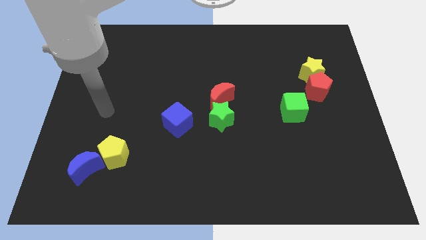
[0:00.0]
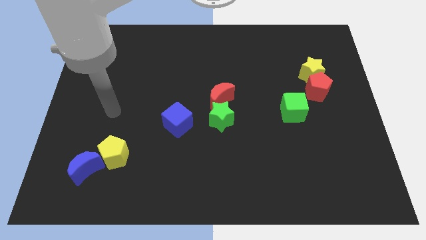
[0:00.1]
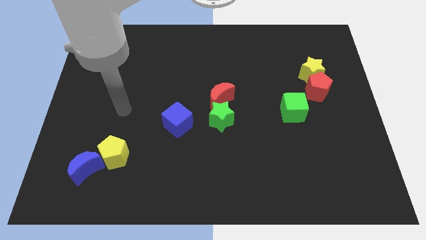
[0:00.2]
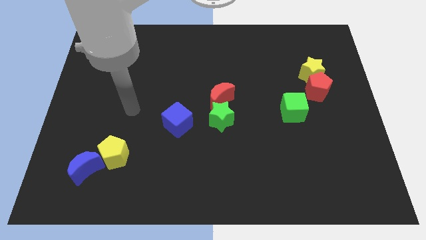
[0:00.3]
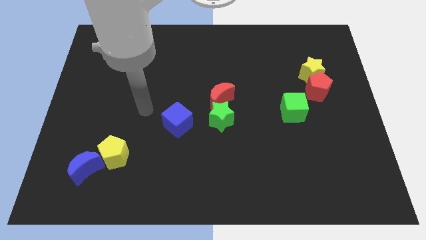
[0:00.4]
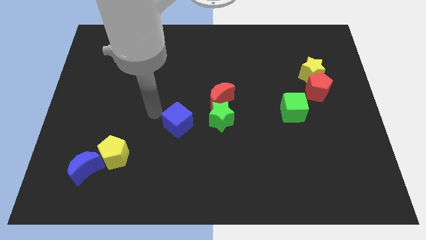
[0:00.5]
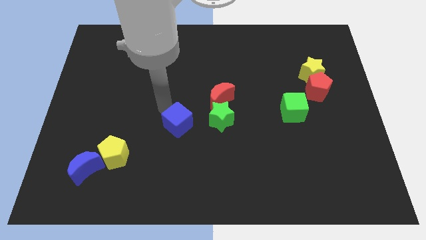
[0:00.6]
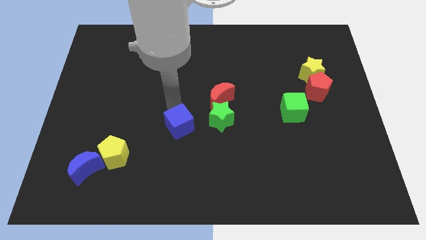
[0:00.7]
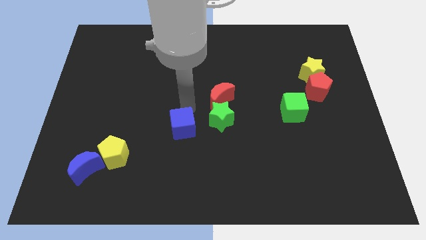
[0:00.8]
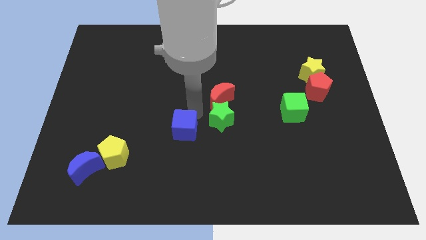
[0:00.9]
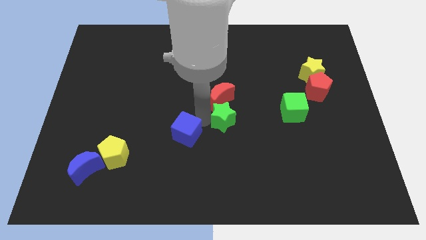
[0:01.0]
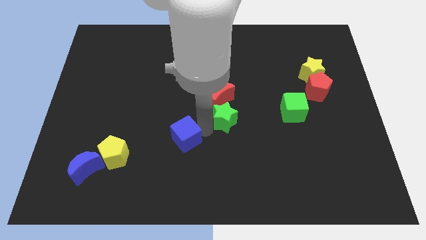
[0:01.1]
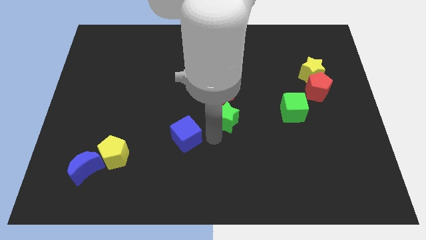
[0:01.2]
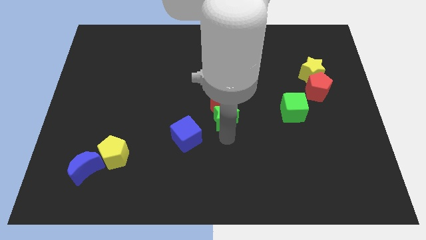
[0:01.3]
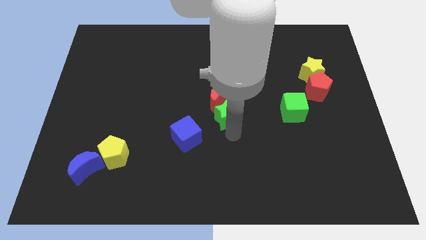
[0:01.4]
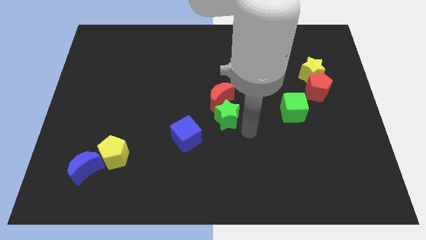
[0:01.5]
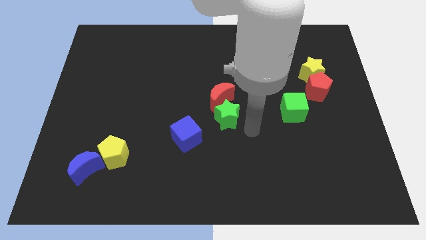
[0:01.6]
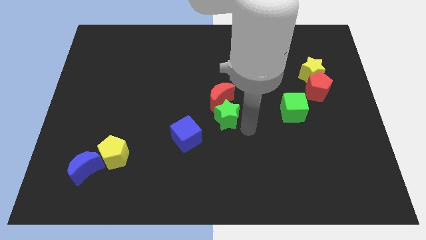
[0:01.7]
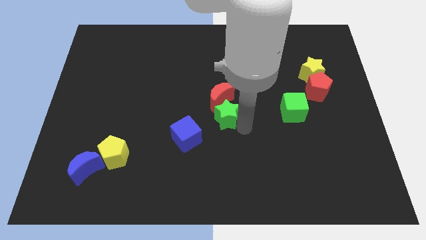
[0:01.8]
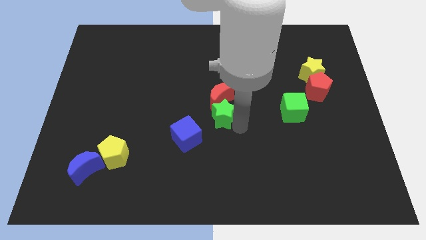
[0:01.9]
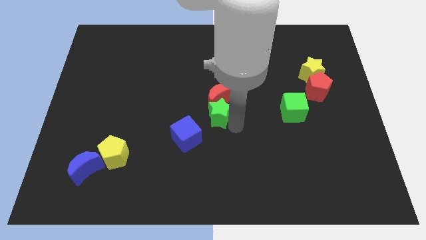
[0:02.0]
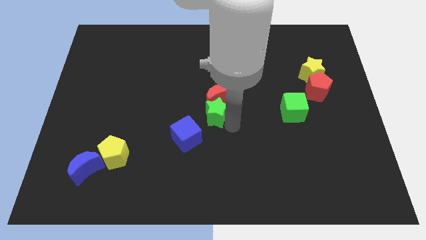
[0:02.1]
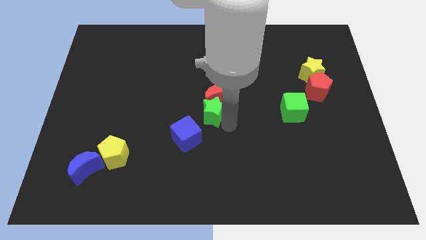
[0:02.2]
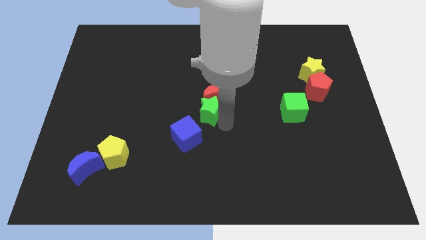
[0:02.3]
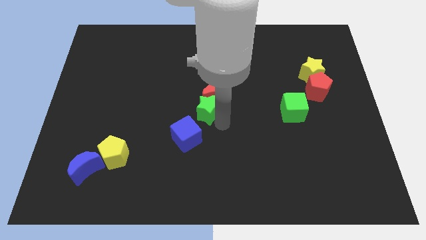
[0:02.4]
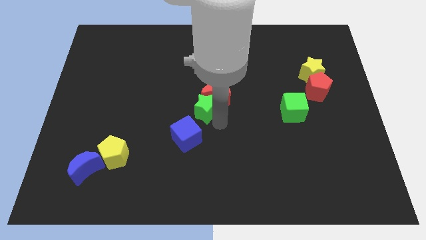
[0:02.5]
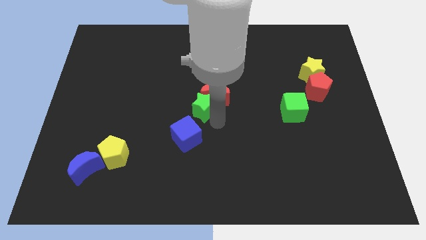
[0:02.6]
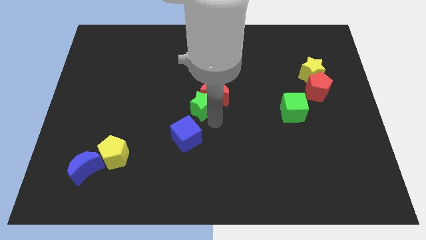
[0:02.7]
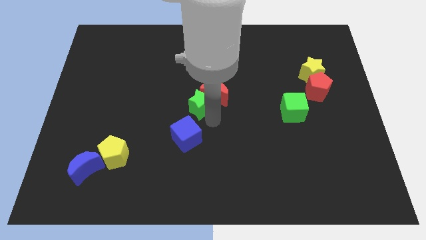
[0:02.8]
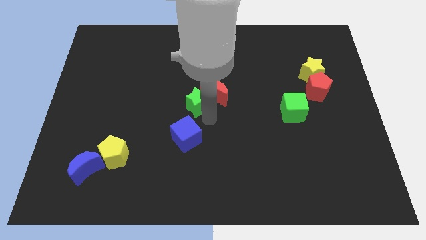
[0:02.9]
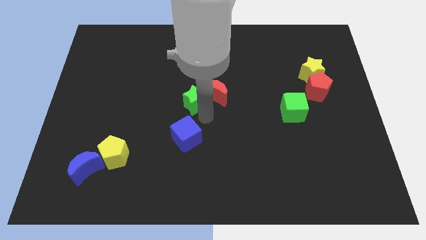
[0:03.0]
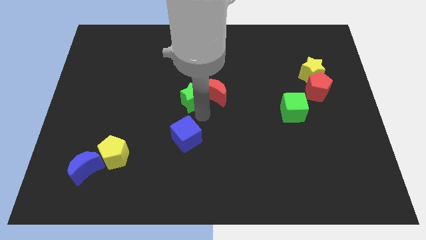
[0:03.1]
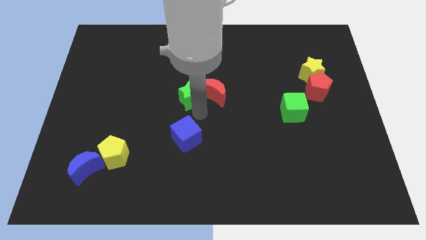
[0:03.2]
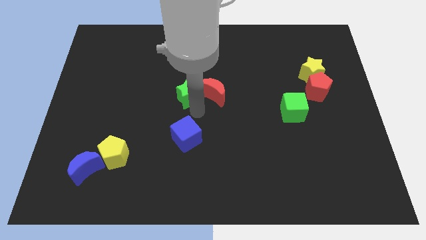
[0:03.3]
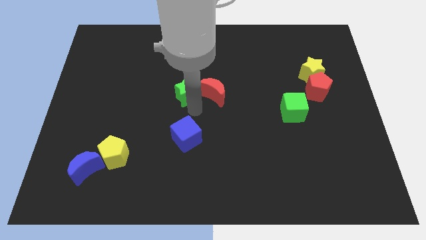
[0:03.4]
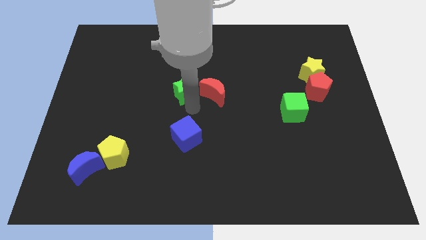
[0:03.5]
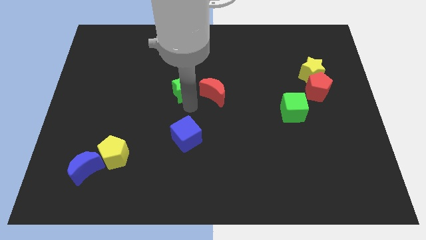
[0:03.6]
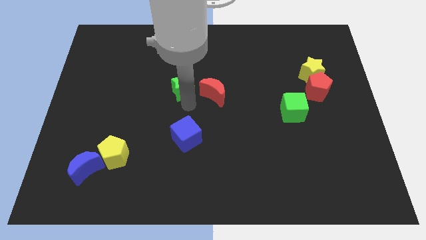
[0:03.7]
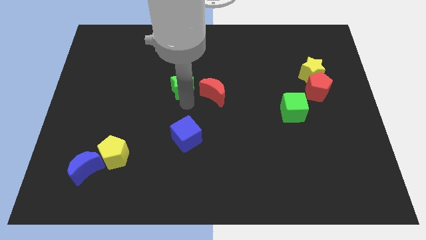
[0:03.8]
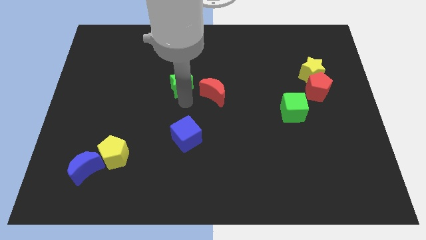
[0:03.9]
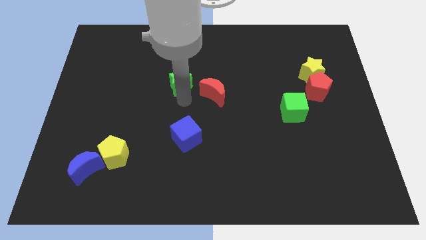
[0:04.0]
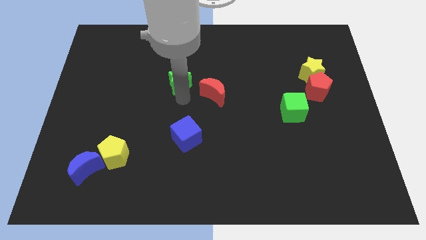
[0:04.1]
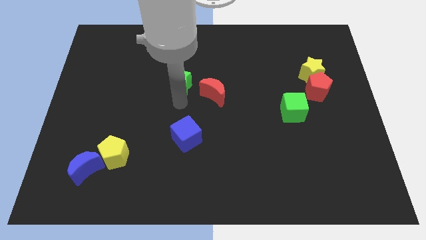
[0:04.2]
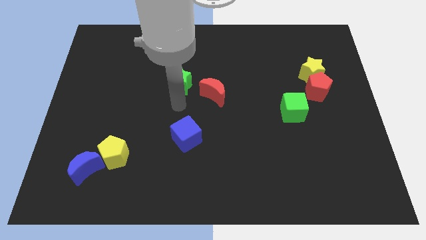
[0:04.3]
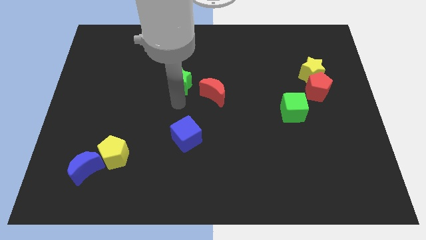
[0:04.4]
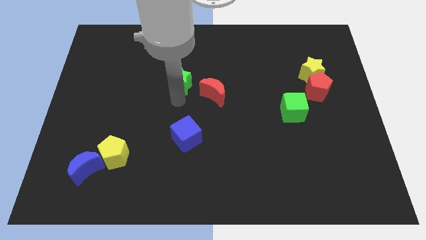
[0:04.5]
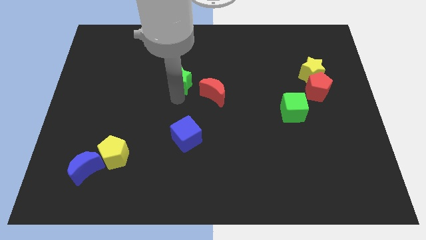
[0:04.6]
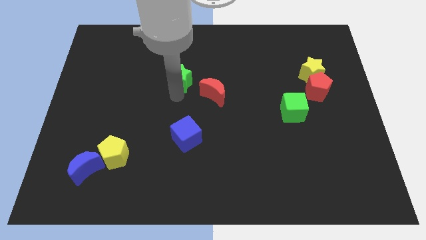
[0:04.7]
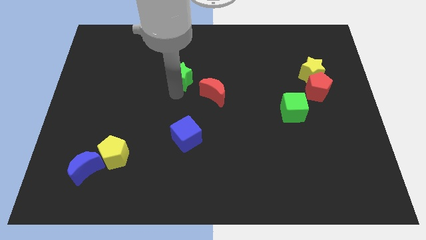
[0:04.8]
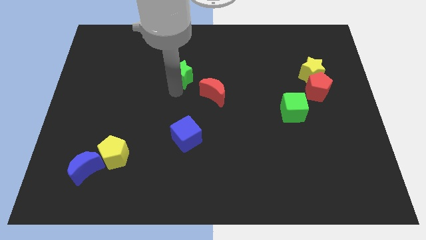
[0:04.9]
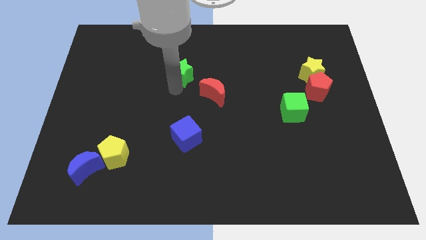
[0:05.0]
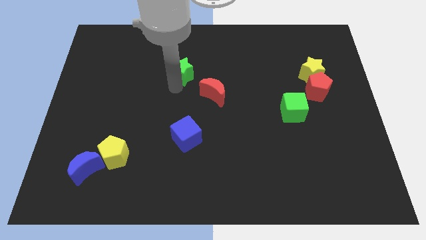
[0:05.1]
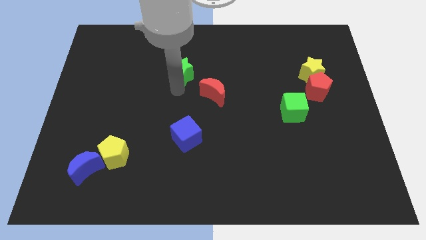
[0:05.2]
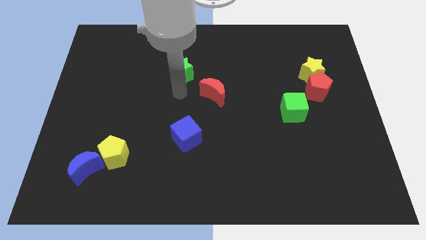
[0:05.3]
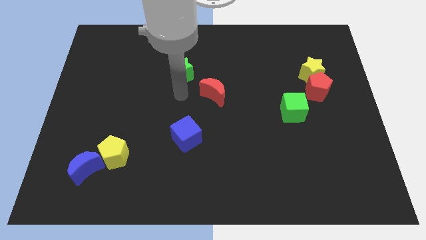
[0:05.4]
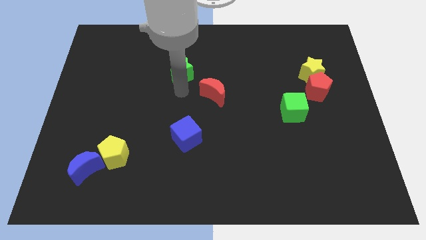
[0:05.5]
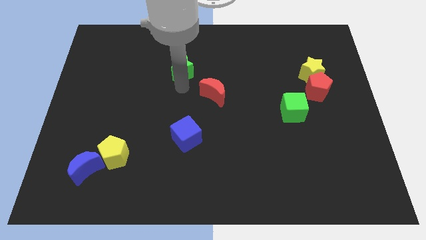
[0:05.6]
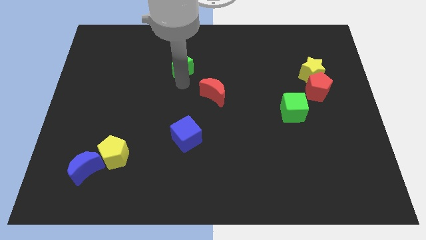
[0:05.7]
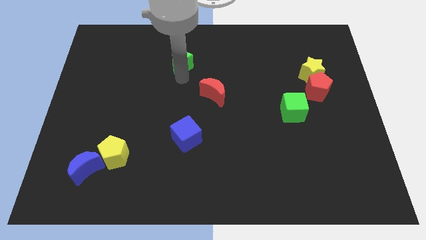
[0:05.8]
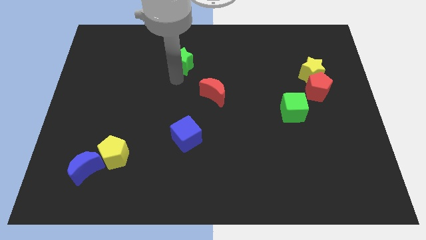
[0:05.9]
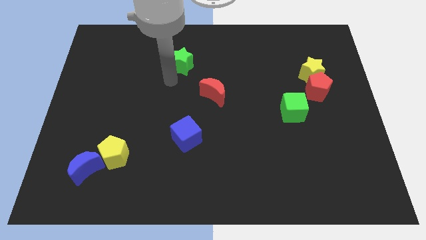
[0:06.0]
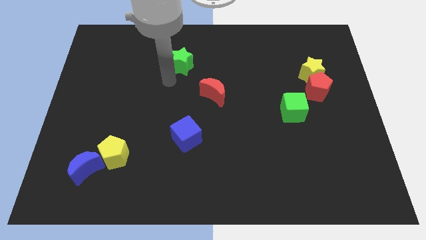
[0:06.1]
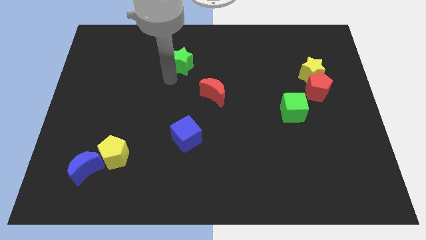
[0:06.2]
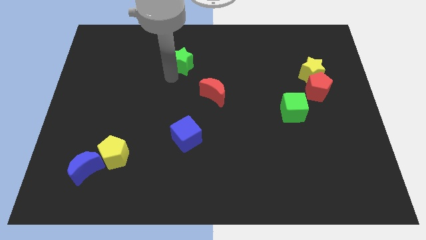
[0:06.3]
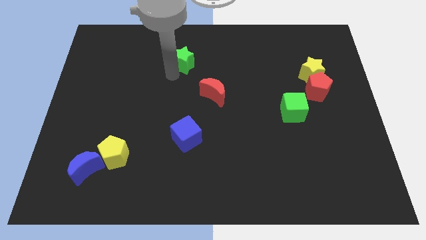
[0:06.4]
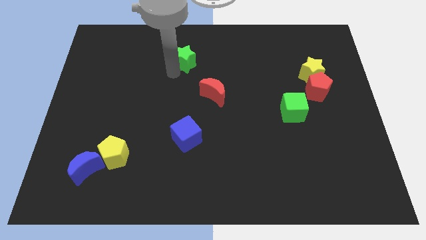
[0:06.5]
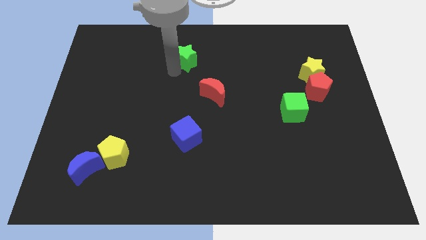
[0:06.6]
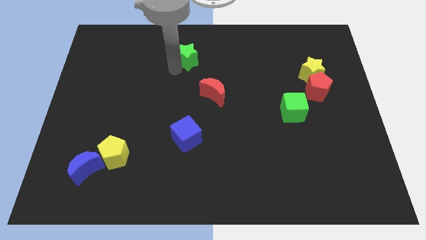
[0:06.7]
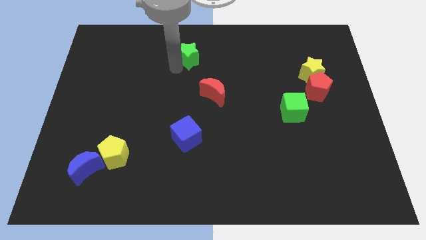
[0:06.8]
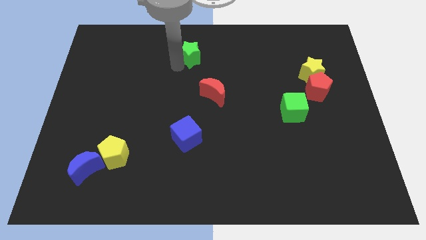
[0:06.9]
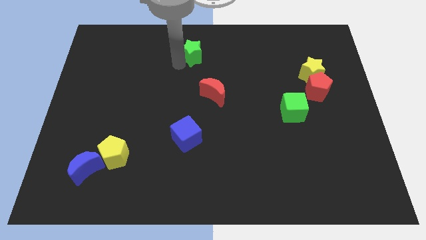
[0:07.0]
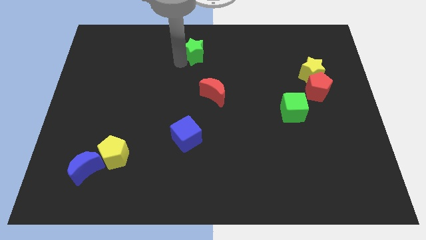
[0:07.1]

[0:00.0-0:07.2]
move the green star to the top side
